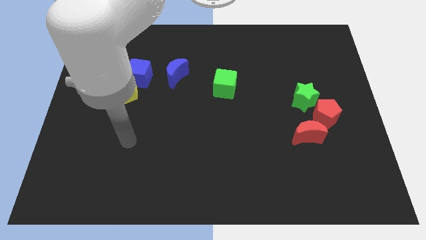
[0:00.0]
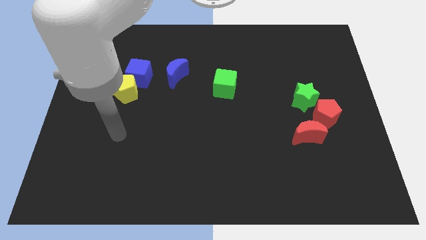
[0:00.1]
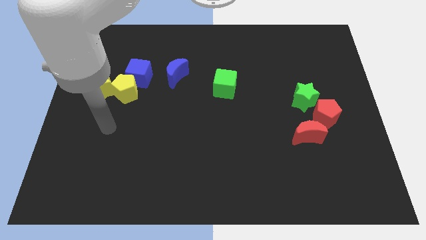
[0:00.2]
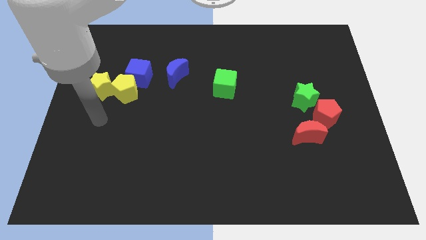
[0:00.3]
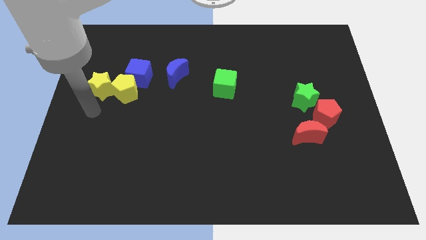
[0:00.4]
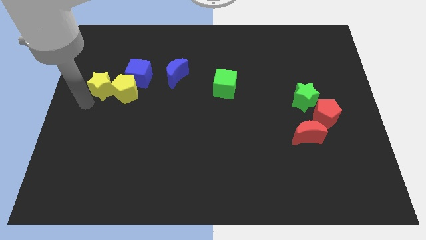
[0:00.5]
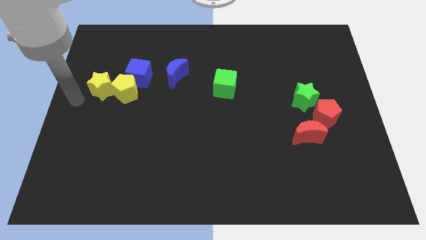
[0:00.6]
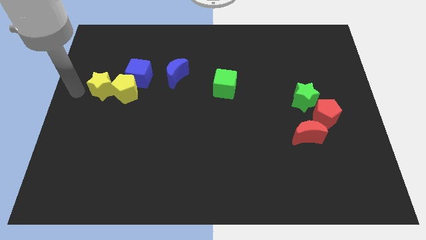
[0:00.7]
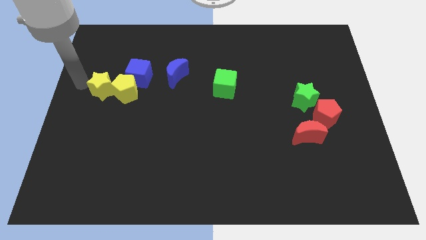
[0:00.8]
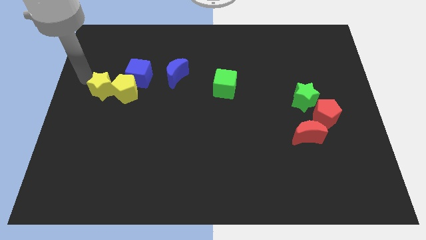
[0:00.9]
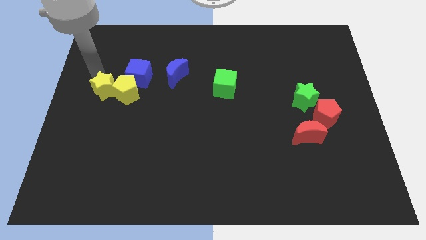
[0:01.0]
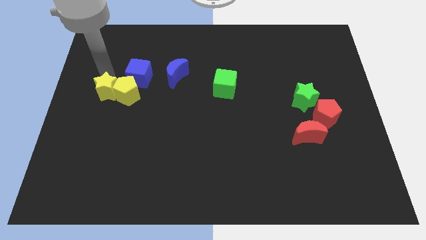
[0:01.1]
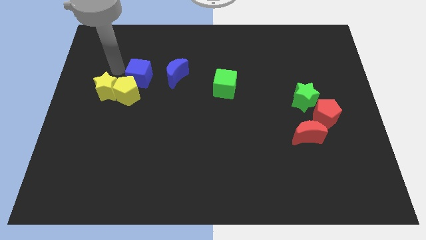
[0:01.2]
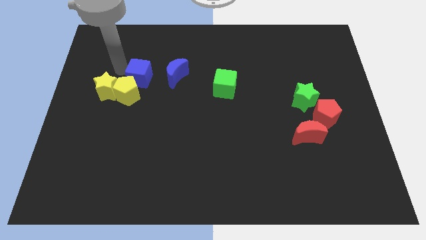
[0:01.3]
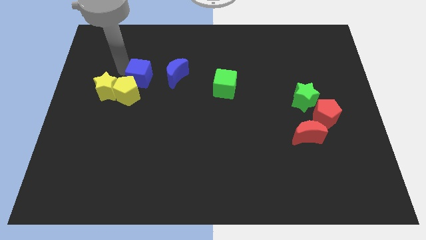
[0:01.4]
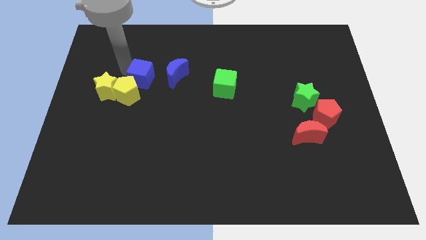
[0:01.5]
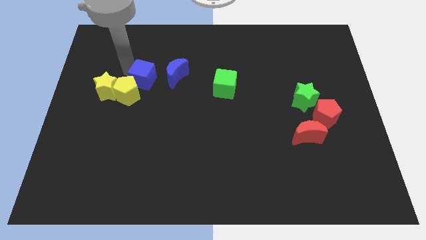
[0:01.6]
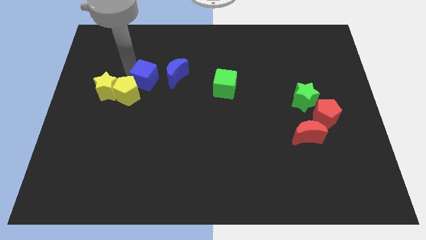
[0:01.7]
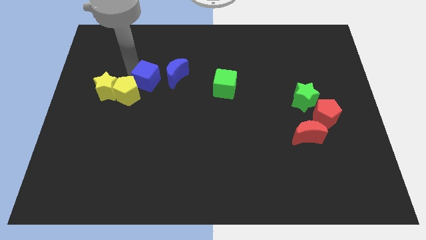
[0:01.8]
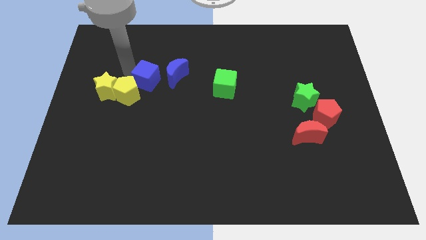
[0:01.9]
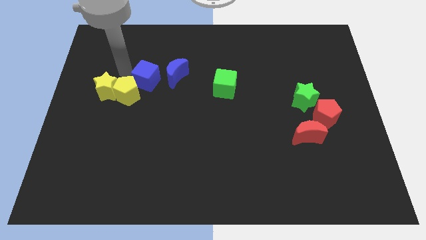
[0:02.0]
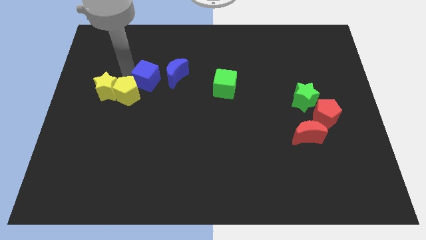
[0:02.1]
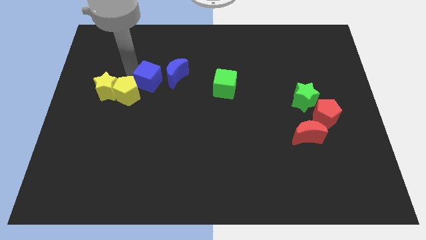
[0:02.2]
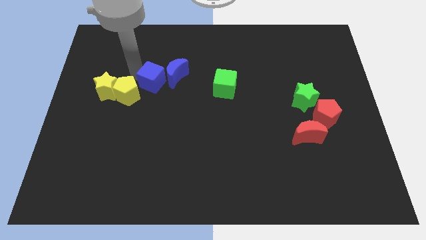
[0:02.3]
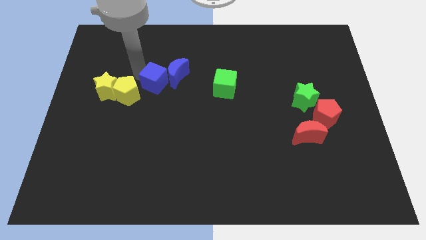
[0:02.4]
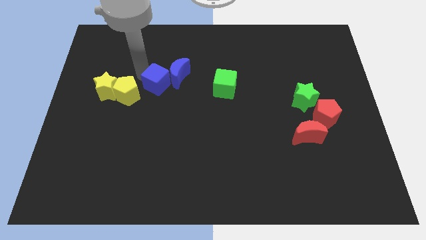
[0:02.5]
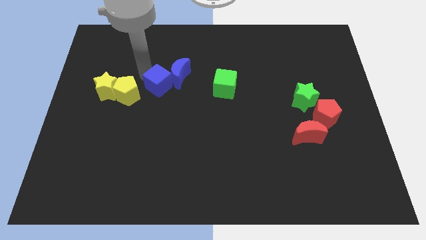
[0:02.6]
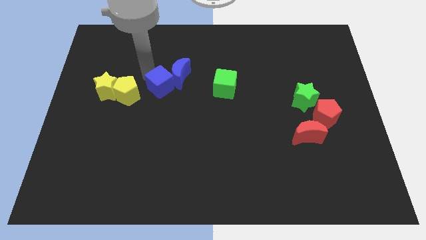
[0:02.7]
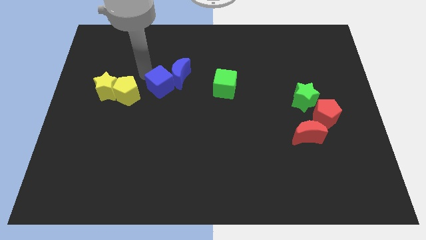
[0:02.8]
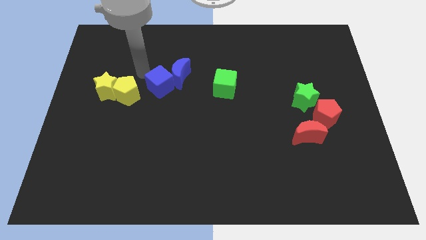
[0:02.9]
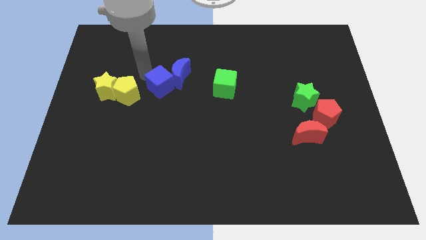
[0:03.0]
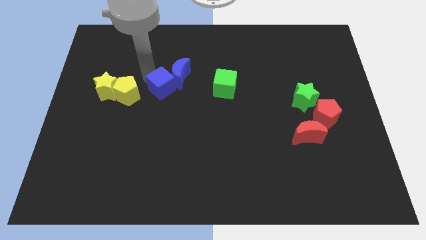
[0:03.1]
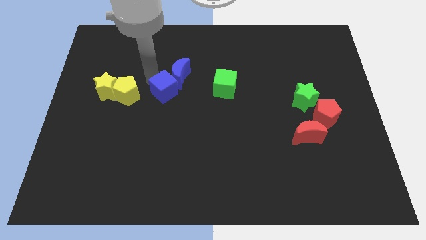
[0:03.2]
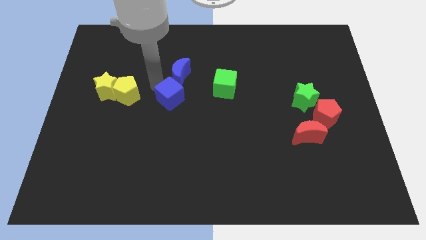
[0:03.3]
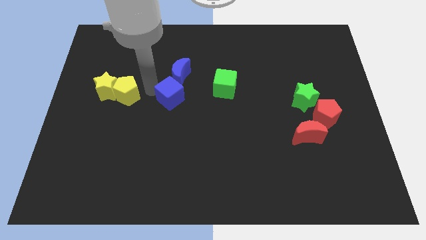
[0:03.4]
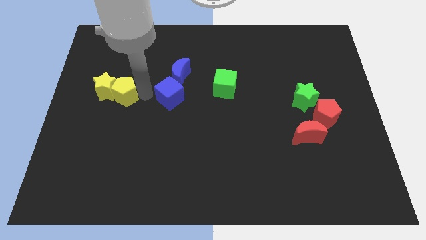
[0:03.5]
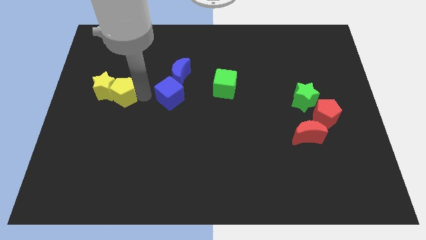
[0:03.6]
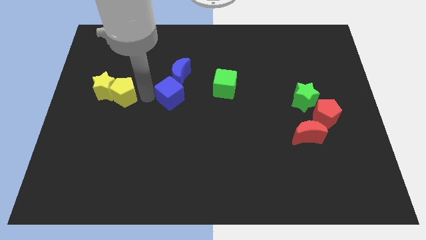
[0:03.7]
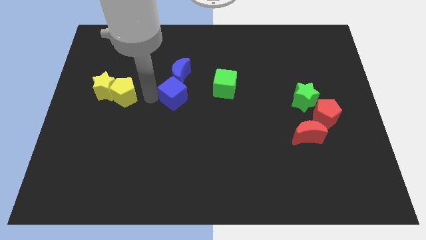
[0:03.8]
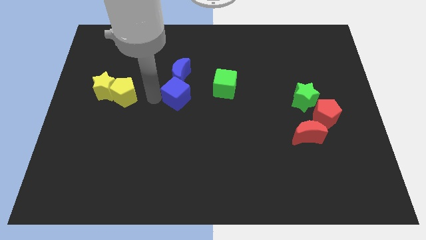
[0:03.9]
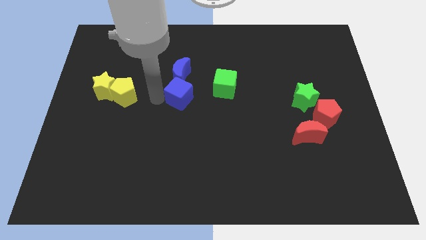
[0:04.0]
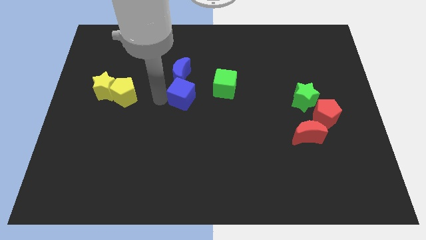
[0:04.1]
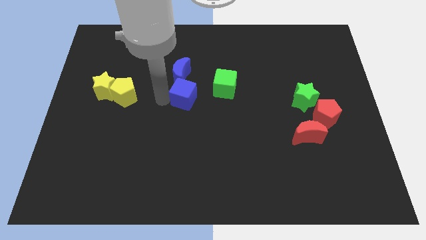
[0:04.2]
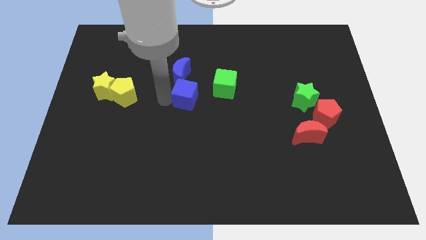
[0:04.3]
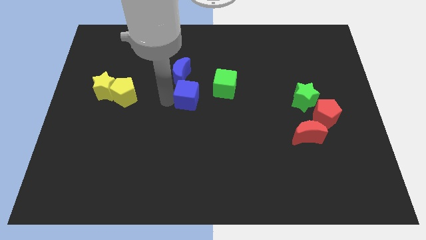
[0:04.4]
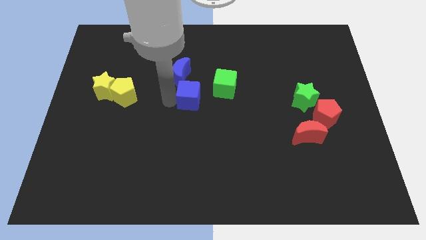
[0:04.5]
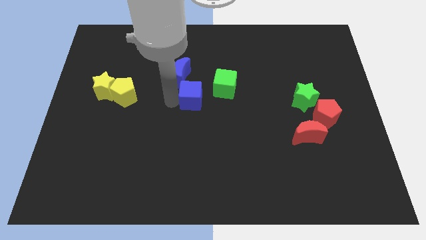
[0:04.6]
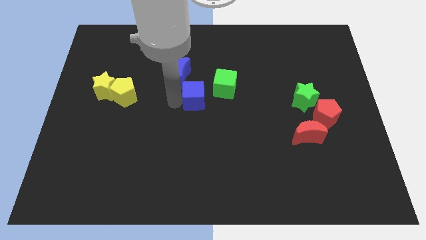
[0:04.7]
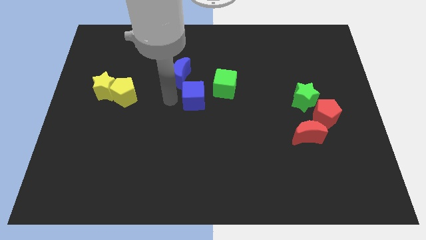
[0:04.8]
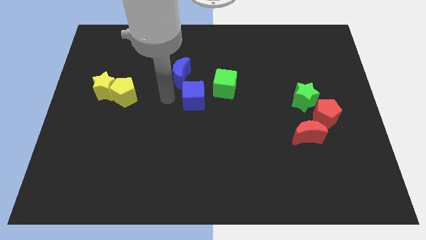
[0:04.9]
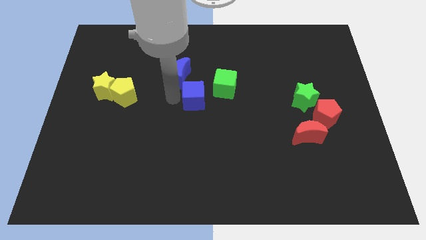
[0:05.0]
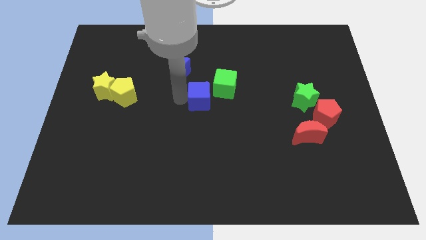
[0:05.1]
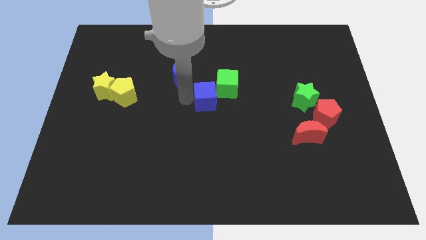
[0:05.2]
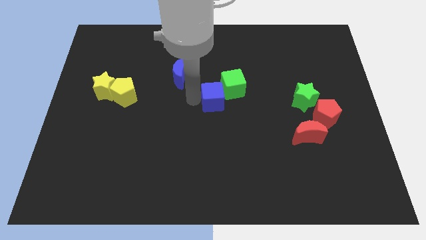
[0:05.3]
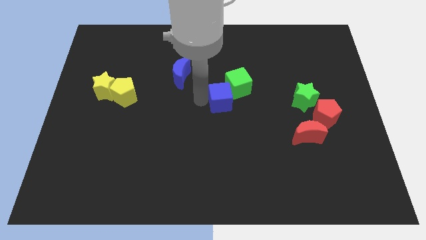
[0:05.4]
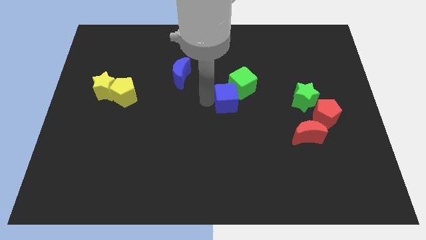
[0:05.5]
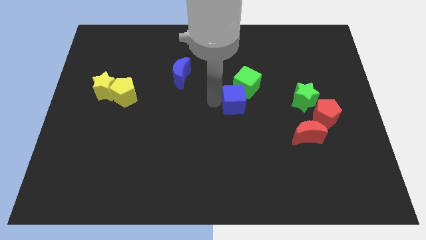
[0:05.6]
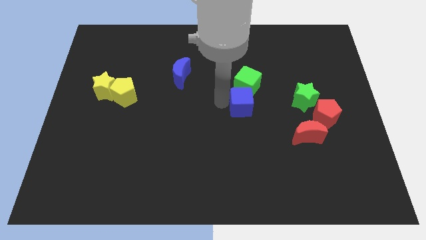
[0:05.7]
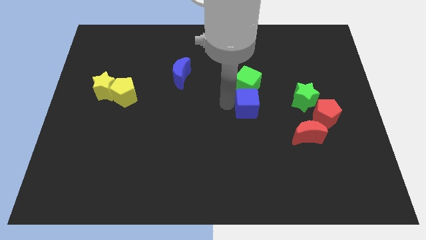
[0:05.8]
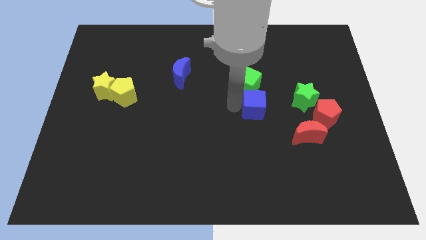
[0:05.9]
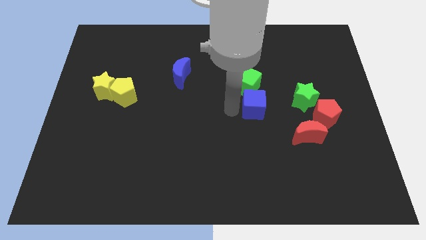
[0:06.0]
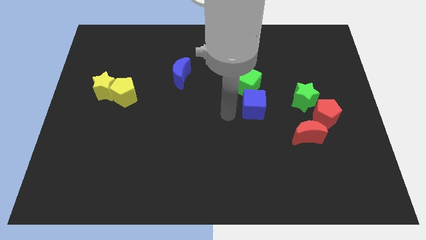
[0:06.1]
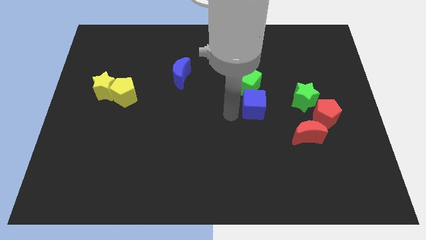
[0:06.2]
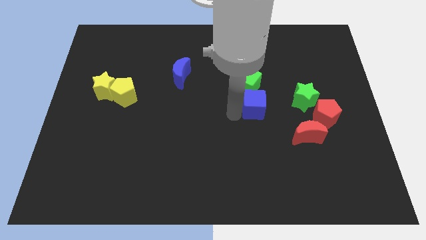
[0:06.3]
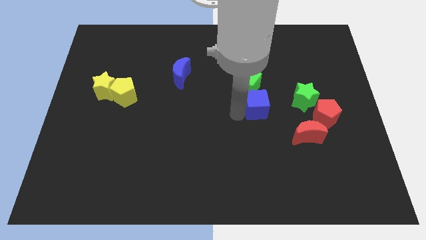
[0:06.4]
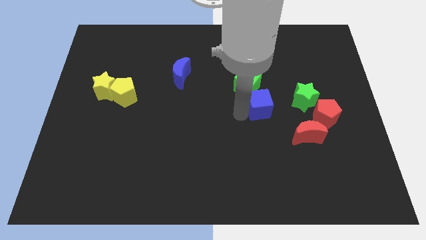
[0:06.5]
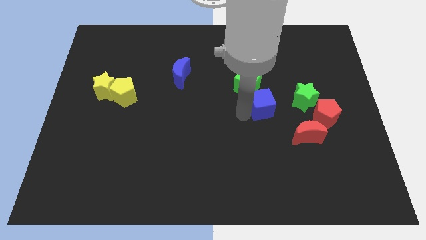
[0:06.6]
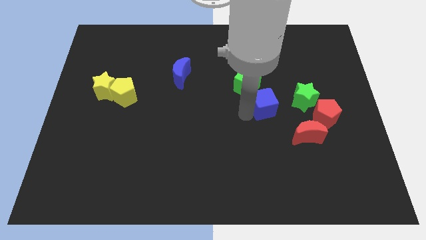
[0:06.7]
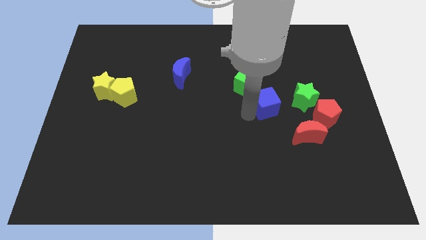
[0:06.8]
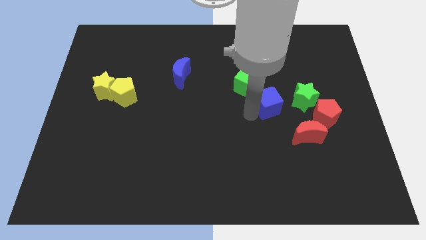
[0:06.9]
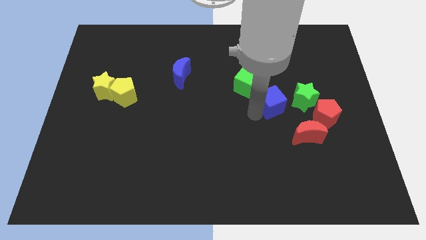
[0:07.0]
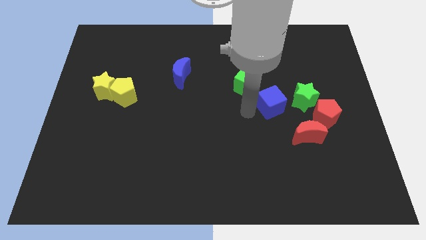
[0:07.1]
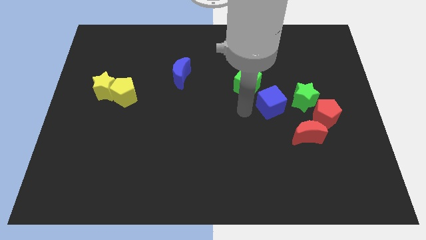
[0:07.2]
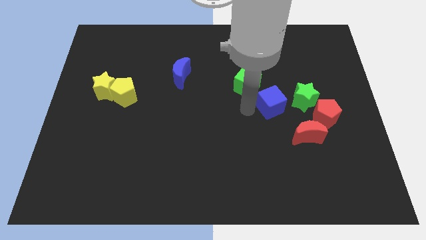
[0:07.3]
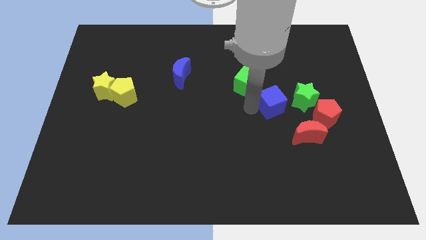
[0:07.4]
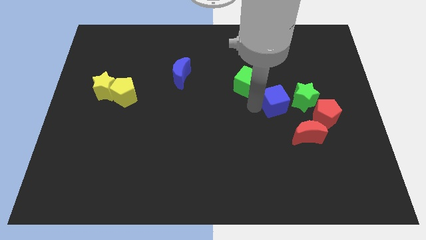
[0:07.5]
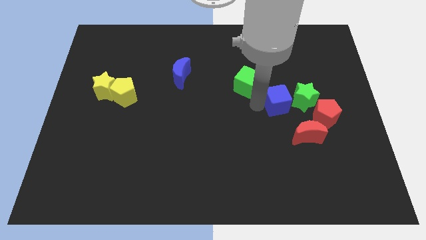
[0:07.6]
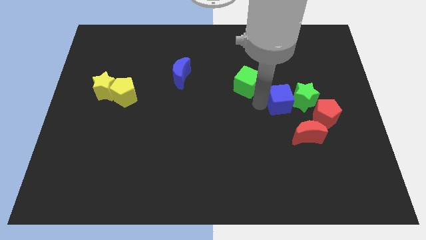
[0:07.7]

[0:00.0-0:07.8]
move the blue cube next to the green star

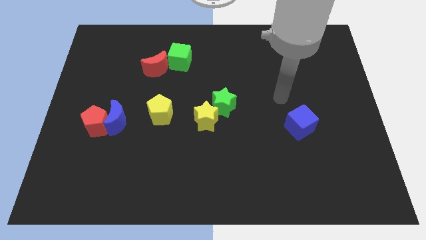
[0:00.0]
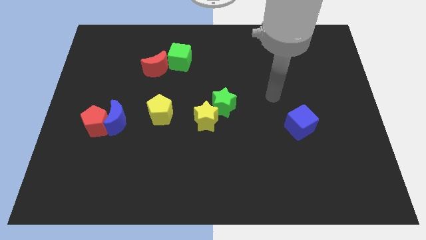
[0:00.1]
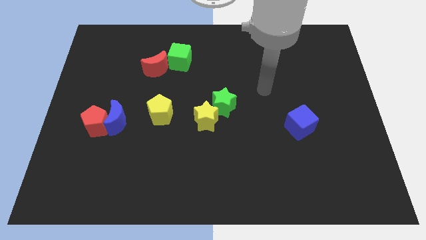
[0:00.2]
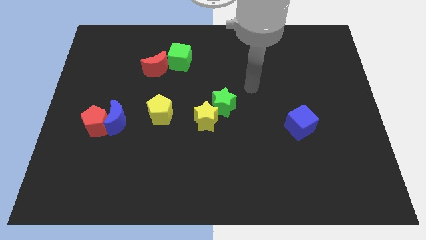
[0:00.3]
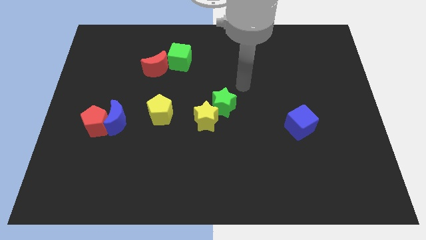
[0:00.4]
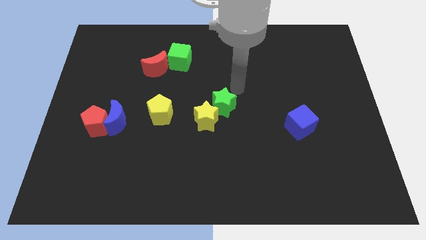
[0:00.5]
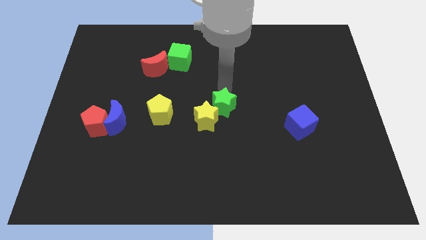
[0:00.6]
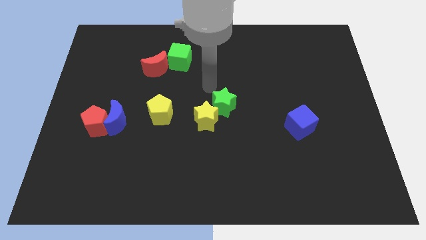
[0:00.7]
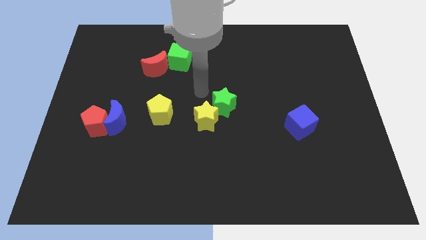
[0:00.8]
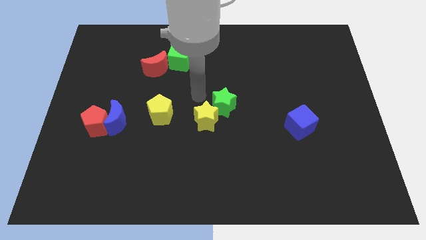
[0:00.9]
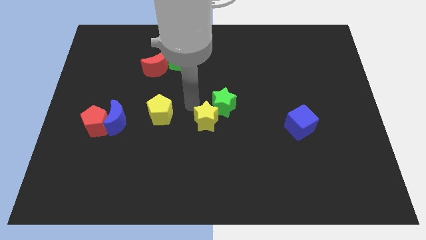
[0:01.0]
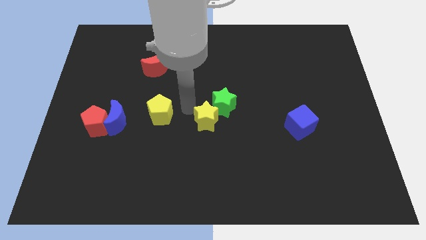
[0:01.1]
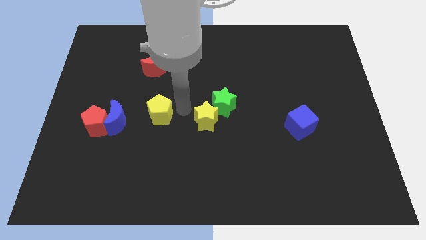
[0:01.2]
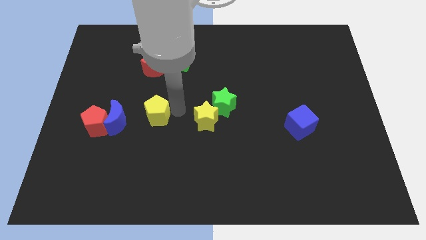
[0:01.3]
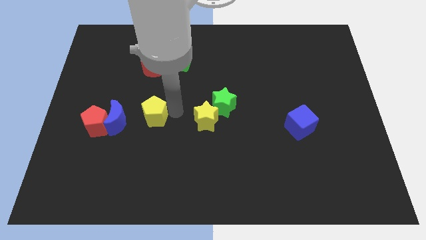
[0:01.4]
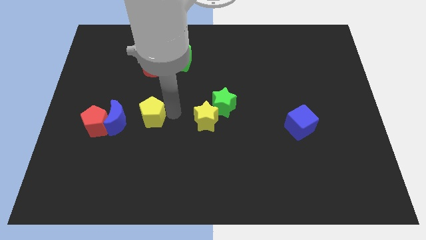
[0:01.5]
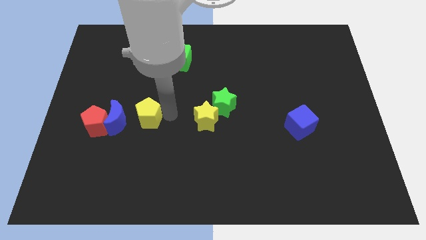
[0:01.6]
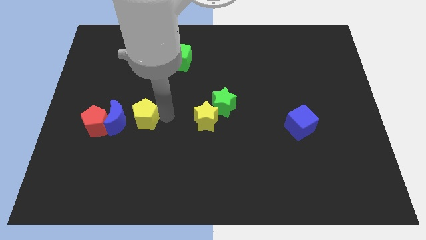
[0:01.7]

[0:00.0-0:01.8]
put the yellow pentagon towards the blue moon
